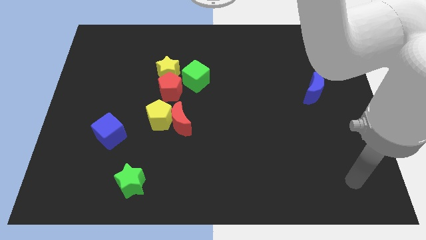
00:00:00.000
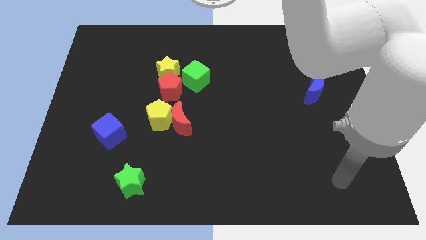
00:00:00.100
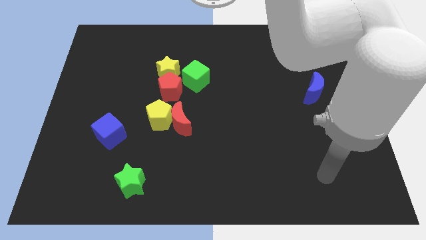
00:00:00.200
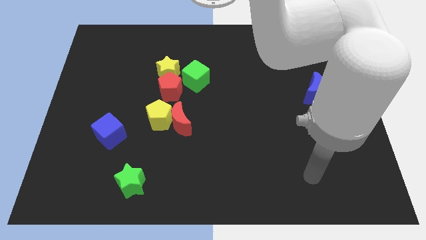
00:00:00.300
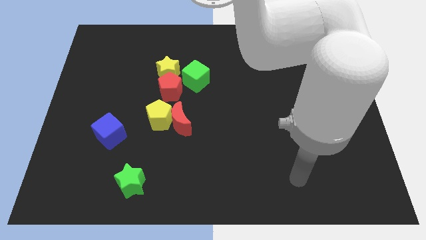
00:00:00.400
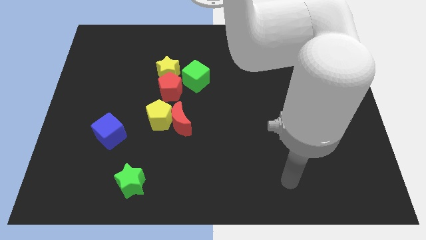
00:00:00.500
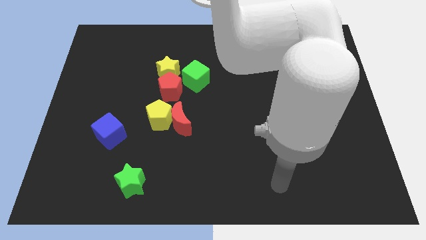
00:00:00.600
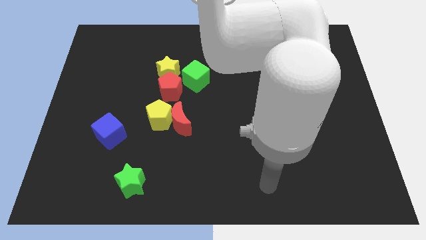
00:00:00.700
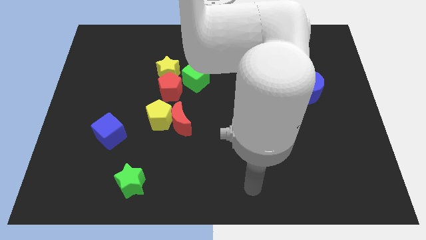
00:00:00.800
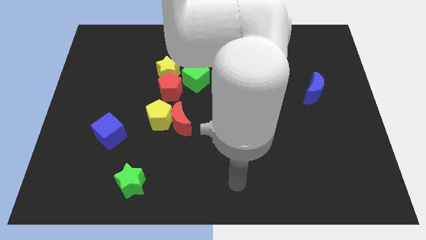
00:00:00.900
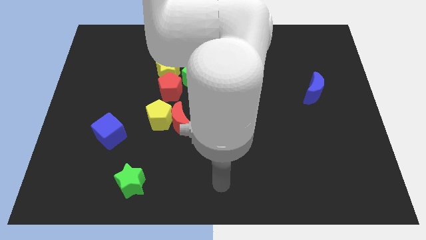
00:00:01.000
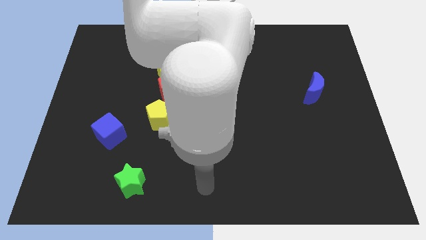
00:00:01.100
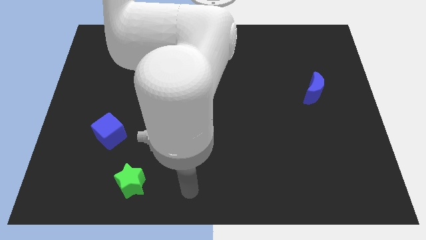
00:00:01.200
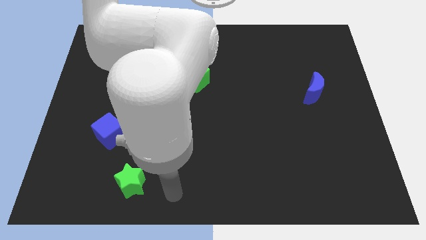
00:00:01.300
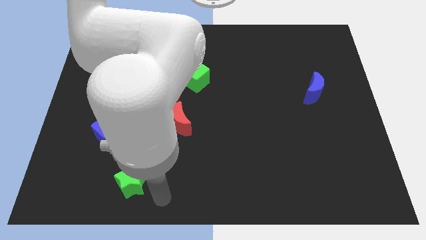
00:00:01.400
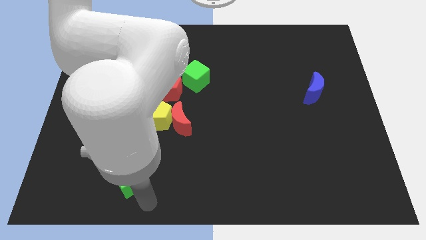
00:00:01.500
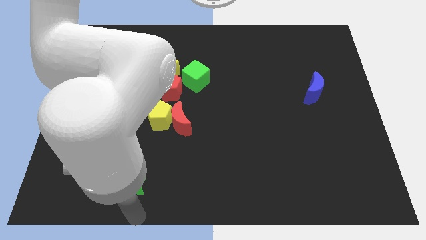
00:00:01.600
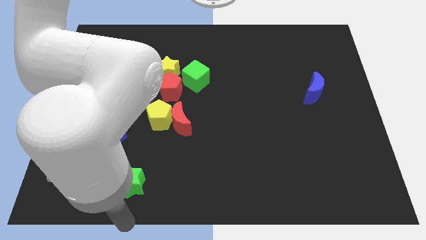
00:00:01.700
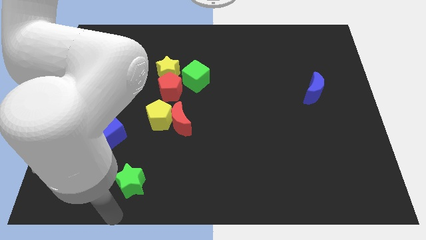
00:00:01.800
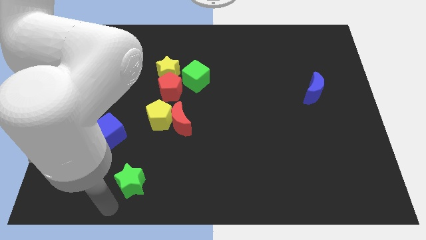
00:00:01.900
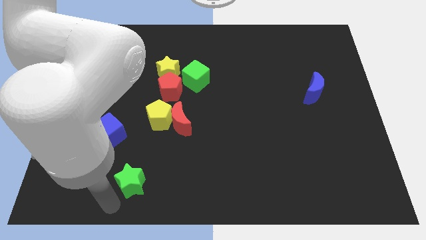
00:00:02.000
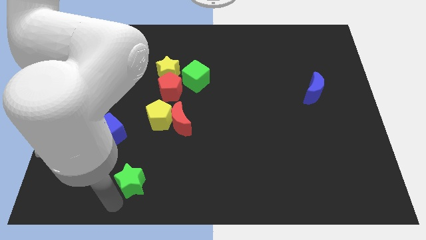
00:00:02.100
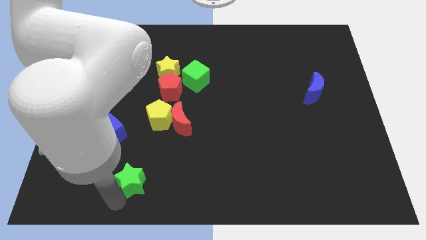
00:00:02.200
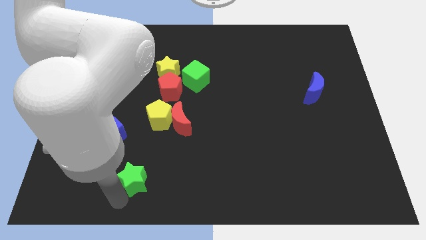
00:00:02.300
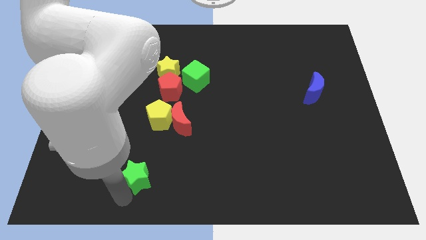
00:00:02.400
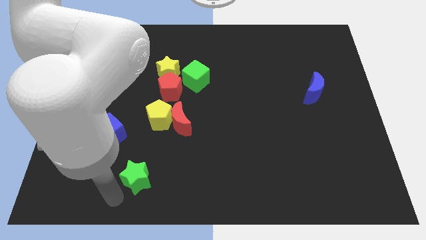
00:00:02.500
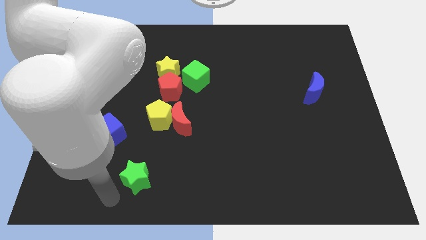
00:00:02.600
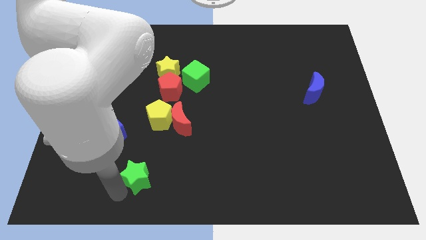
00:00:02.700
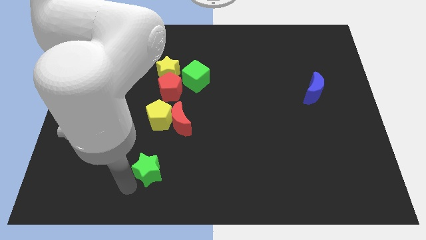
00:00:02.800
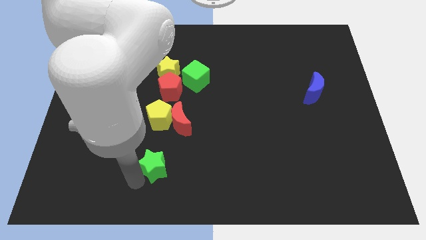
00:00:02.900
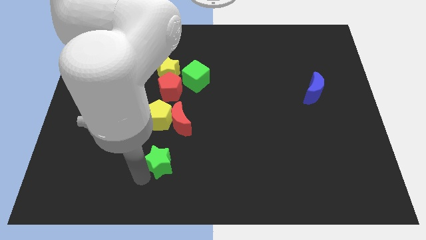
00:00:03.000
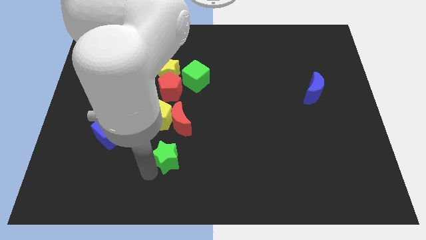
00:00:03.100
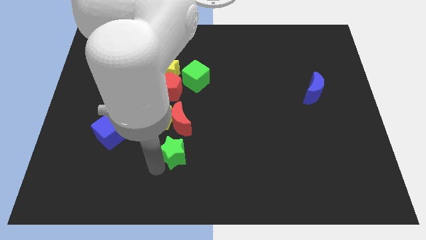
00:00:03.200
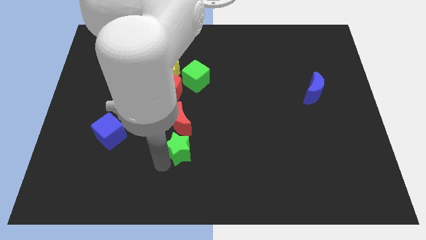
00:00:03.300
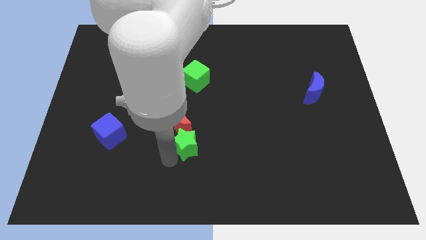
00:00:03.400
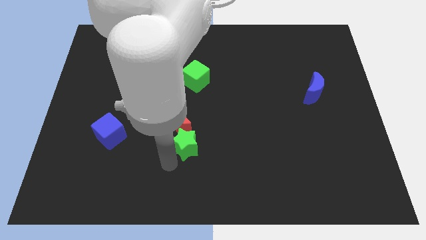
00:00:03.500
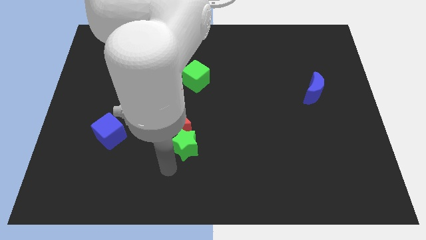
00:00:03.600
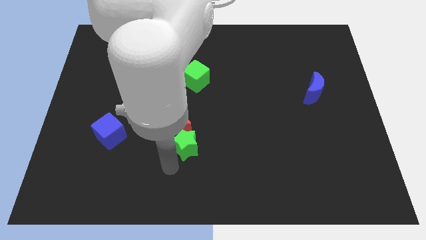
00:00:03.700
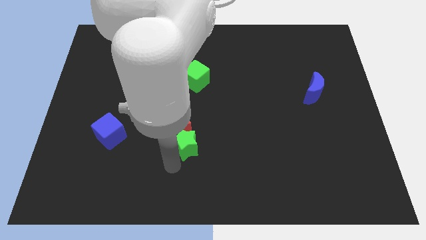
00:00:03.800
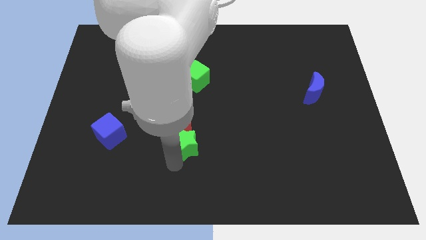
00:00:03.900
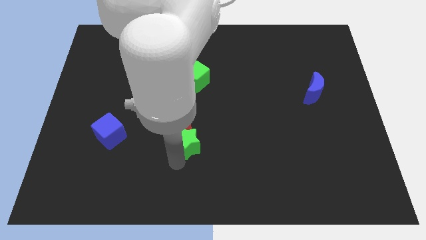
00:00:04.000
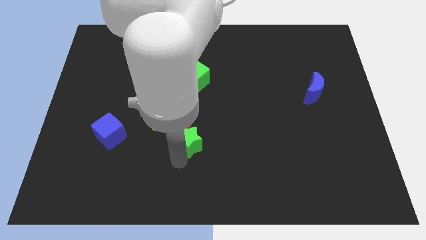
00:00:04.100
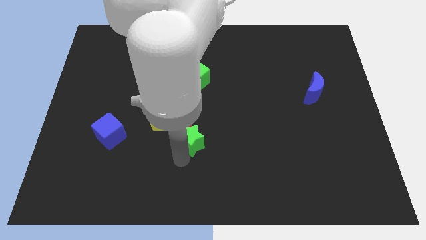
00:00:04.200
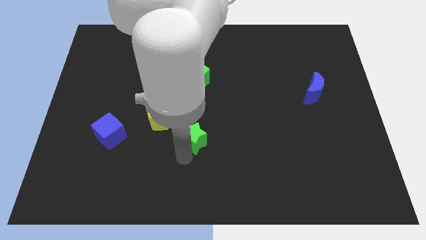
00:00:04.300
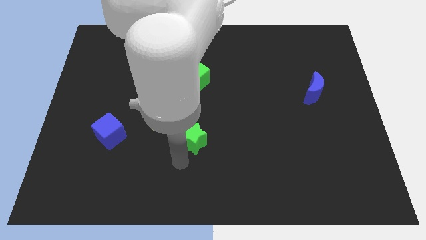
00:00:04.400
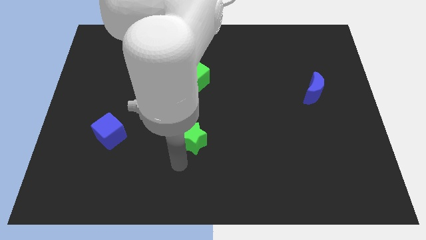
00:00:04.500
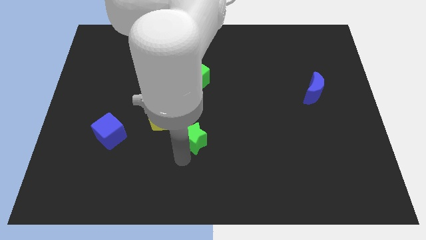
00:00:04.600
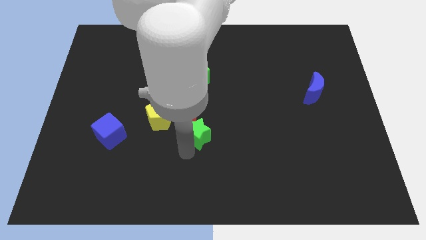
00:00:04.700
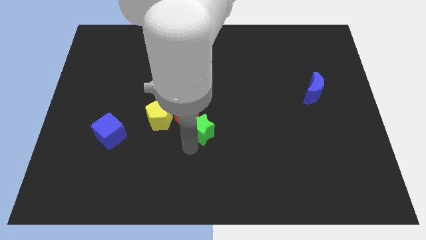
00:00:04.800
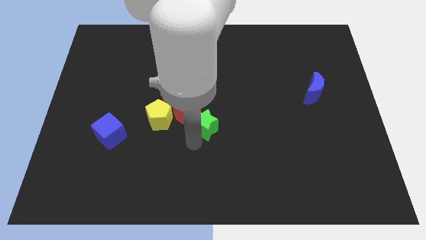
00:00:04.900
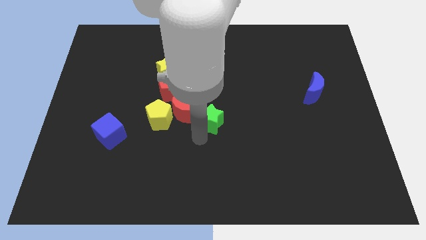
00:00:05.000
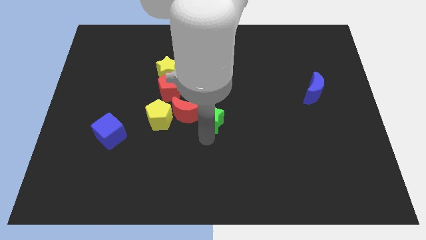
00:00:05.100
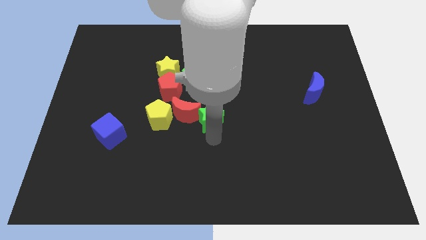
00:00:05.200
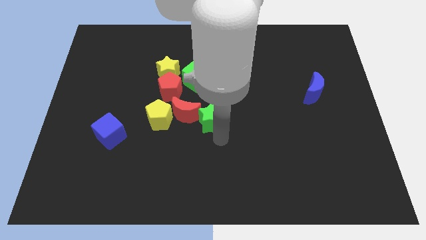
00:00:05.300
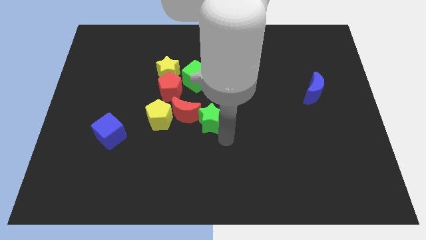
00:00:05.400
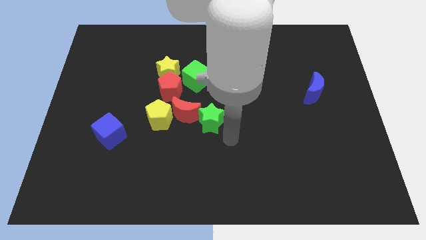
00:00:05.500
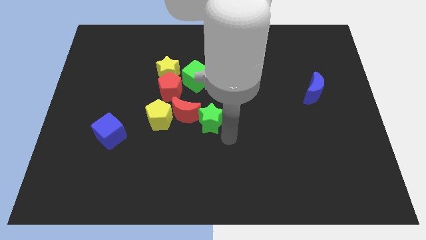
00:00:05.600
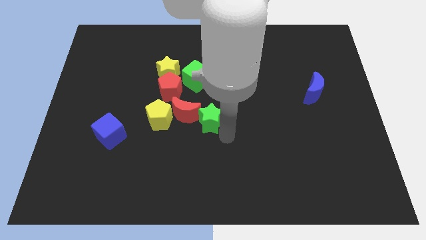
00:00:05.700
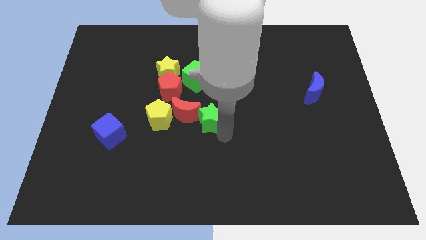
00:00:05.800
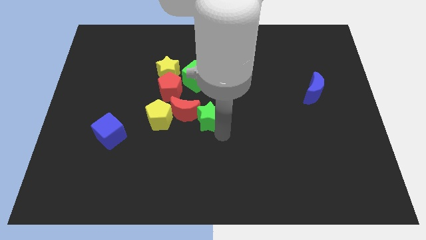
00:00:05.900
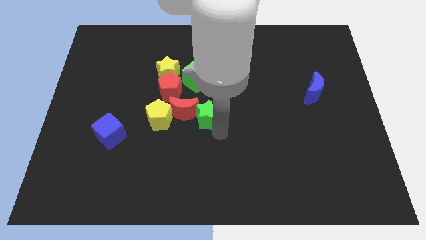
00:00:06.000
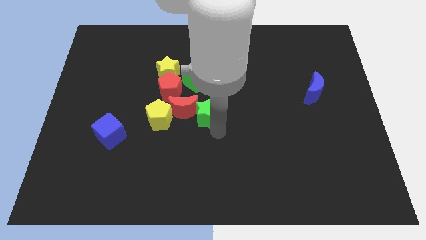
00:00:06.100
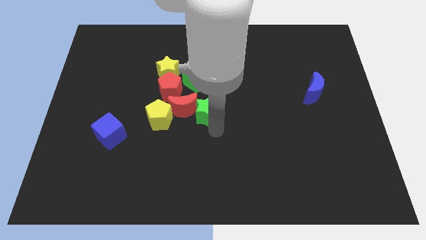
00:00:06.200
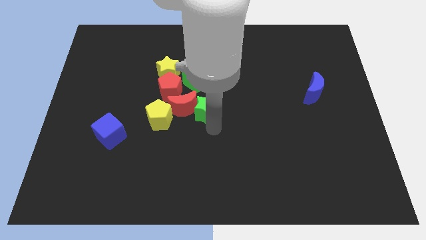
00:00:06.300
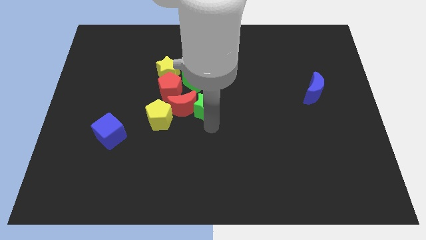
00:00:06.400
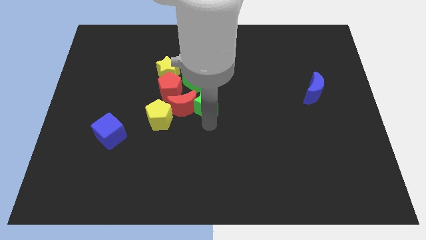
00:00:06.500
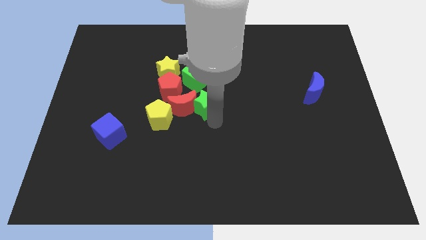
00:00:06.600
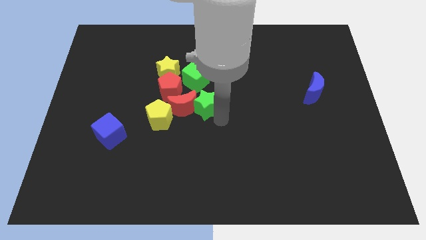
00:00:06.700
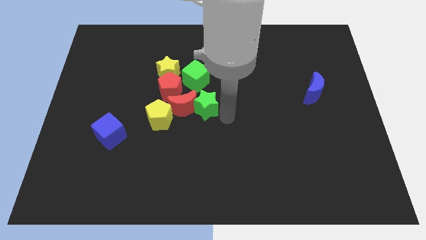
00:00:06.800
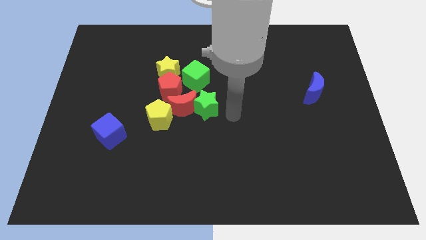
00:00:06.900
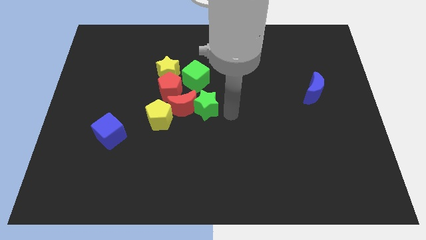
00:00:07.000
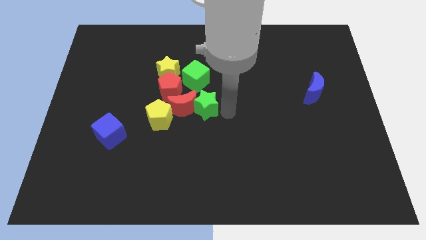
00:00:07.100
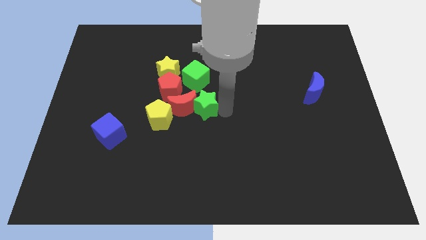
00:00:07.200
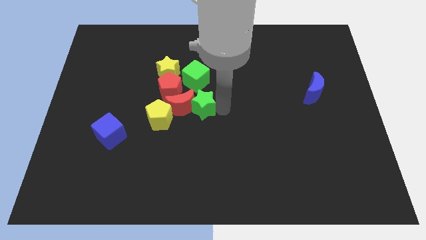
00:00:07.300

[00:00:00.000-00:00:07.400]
put the green star diagonally up and to the right of the yellow pentagon
